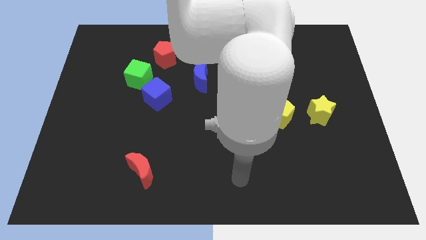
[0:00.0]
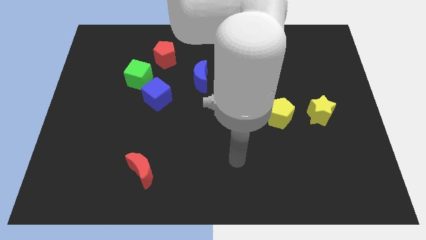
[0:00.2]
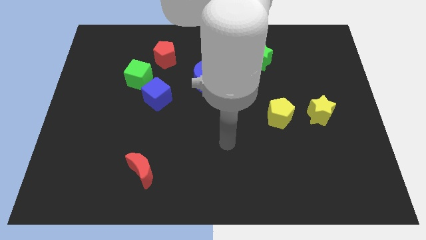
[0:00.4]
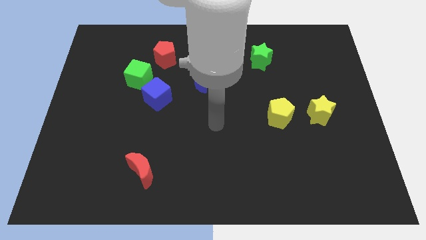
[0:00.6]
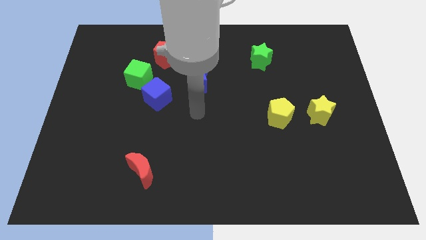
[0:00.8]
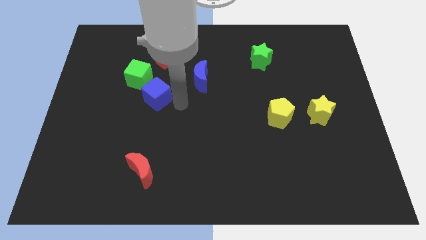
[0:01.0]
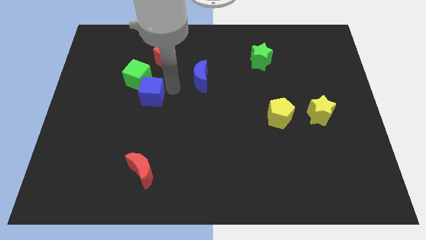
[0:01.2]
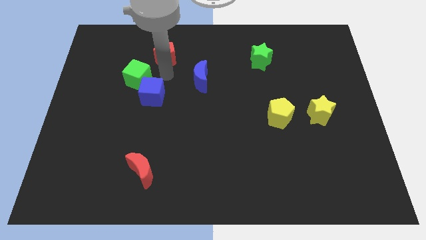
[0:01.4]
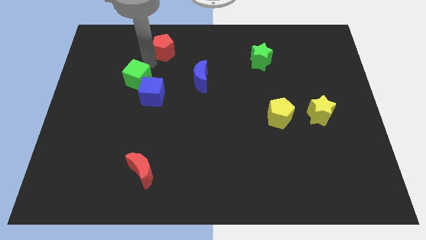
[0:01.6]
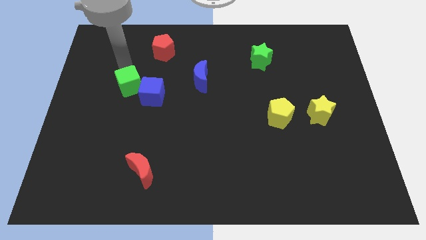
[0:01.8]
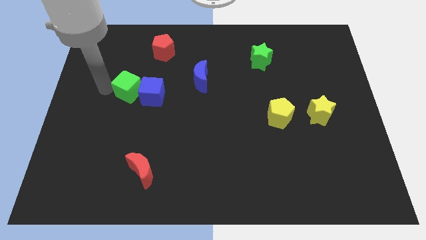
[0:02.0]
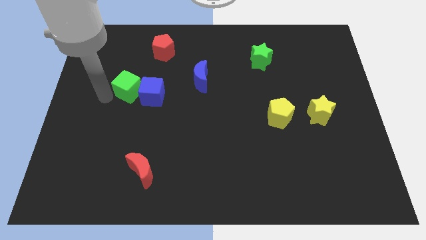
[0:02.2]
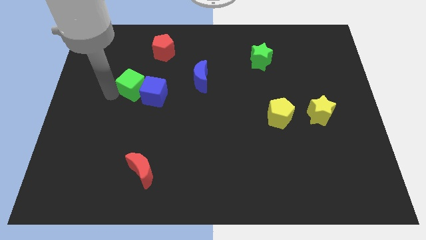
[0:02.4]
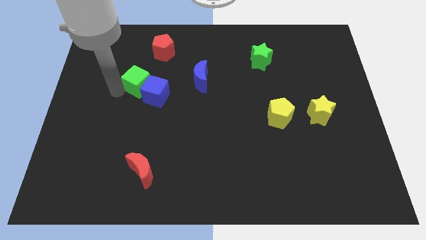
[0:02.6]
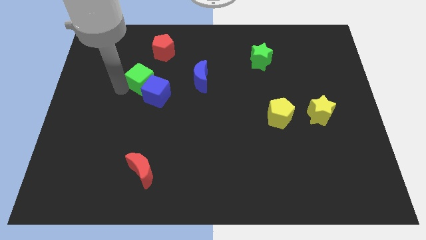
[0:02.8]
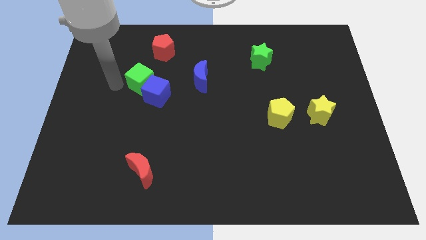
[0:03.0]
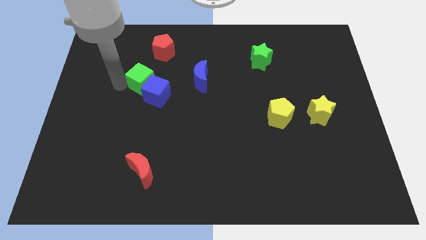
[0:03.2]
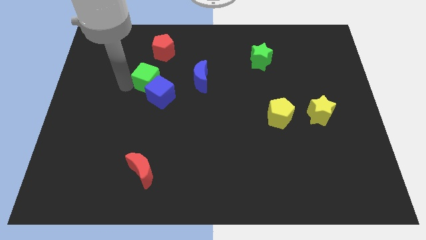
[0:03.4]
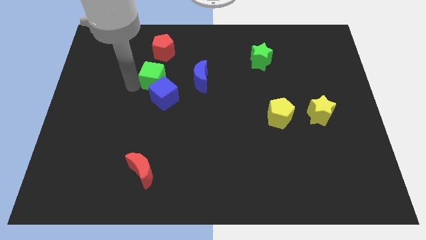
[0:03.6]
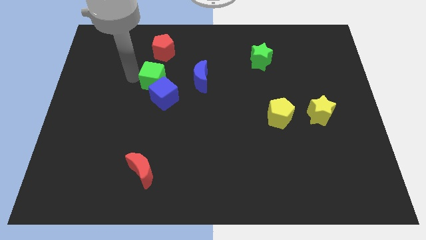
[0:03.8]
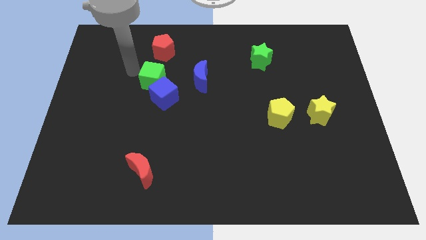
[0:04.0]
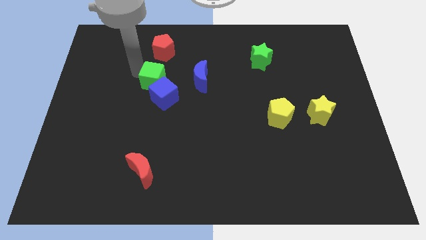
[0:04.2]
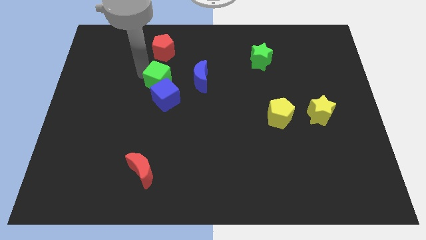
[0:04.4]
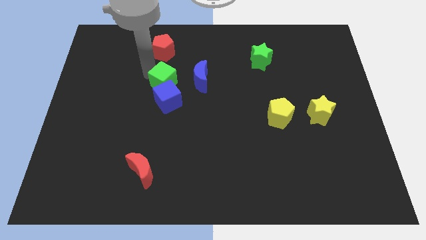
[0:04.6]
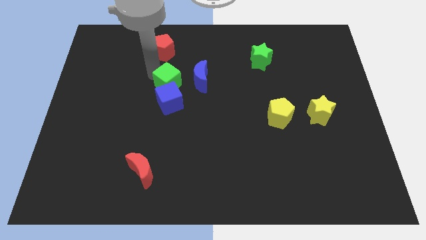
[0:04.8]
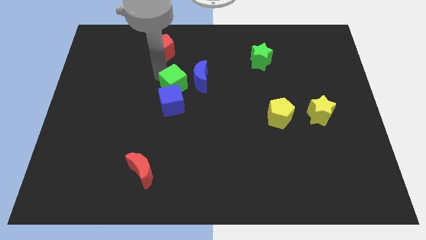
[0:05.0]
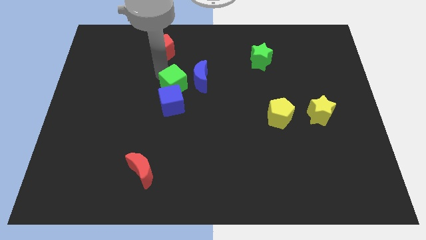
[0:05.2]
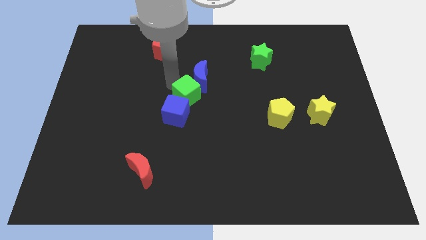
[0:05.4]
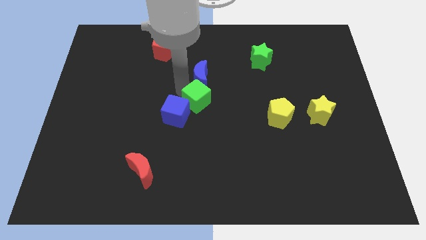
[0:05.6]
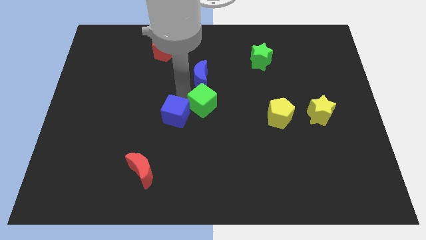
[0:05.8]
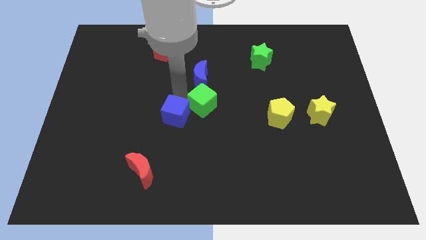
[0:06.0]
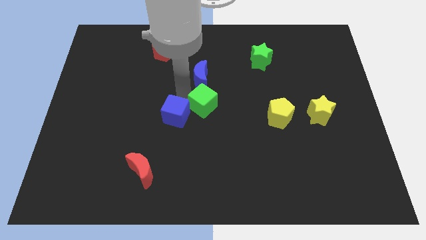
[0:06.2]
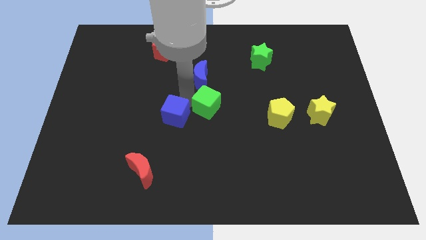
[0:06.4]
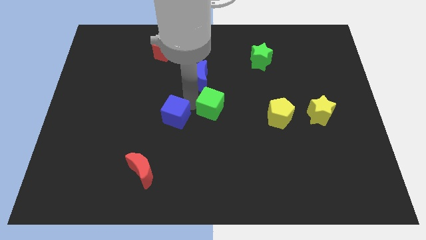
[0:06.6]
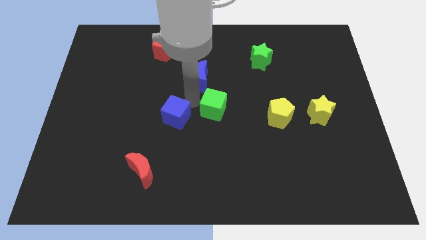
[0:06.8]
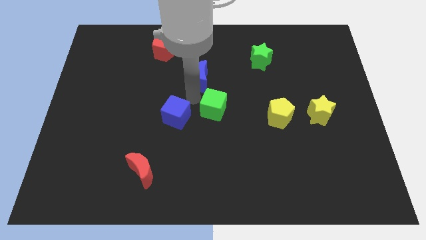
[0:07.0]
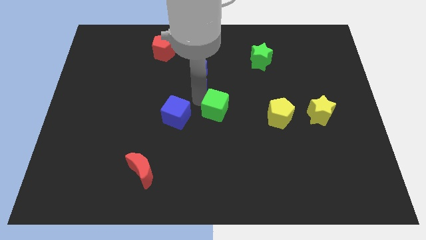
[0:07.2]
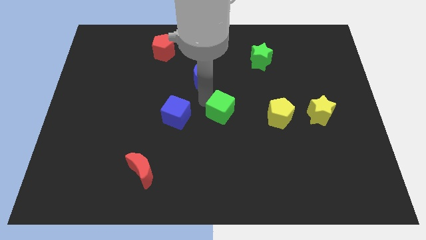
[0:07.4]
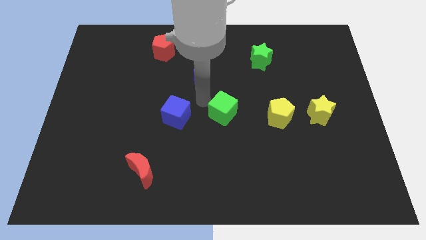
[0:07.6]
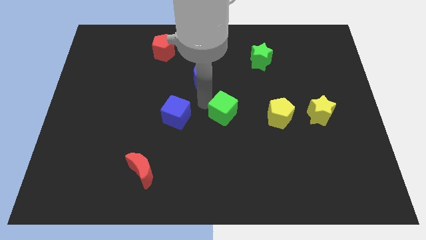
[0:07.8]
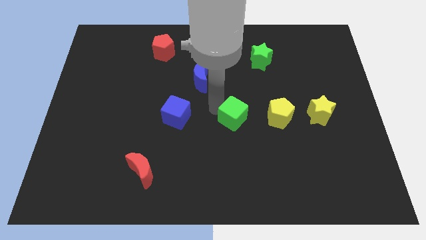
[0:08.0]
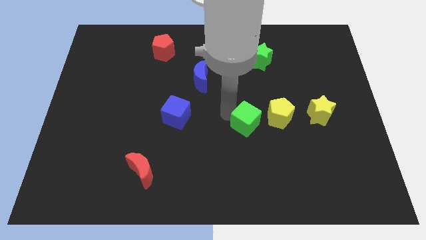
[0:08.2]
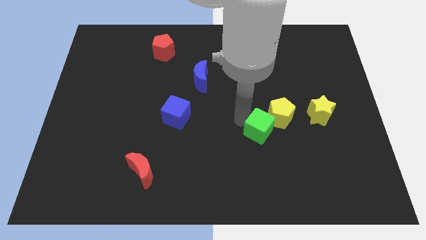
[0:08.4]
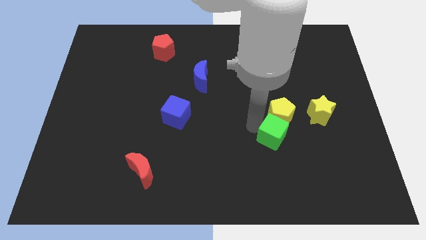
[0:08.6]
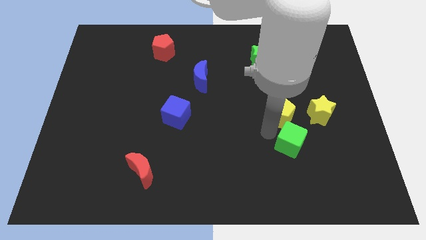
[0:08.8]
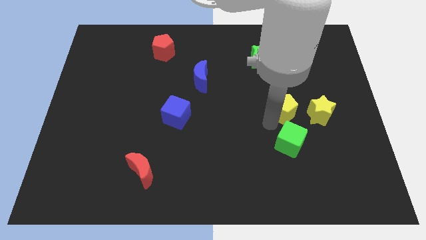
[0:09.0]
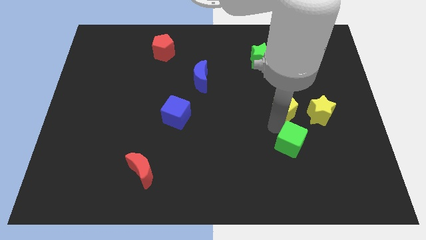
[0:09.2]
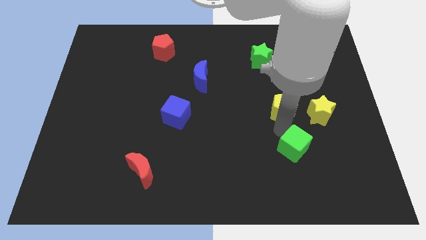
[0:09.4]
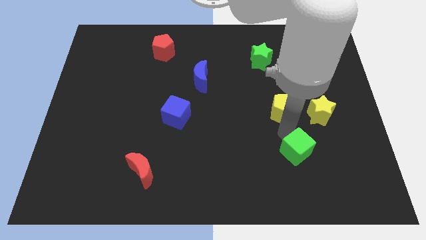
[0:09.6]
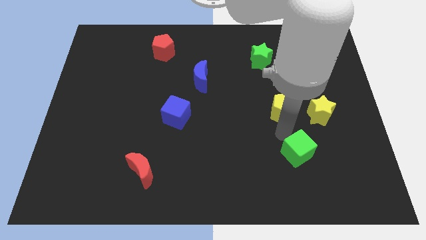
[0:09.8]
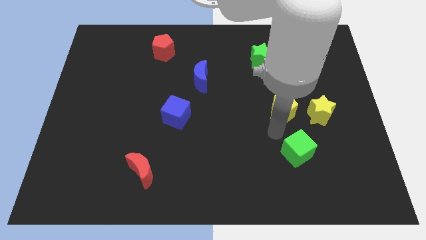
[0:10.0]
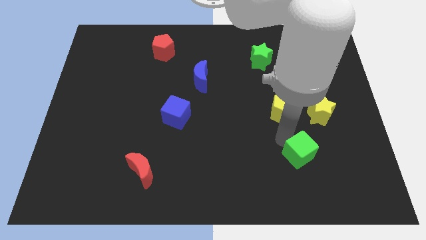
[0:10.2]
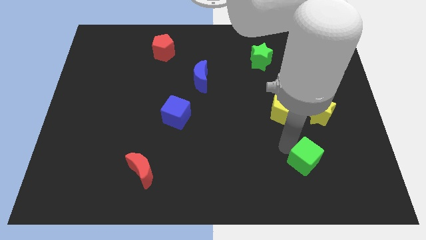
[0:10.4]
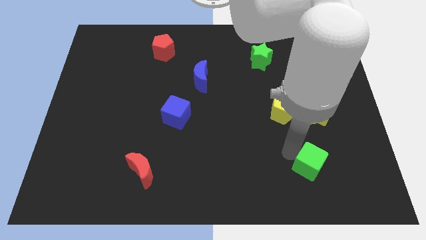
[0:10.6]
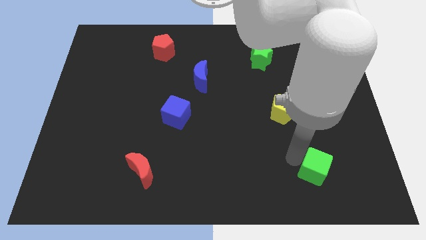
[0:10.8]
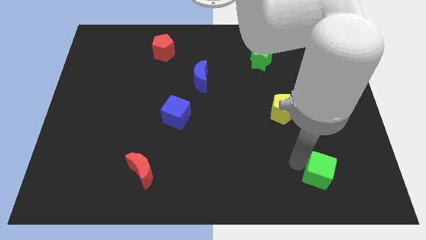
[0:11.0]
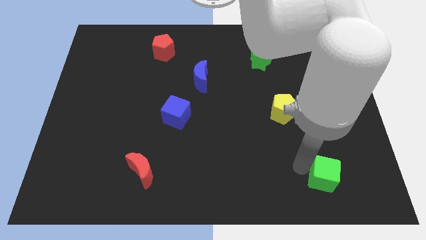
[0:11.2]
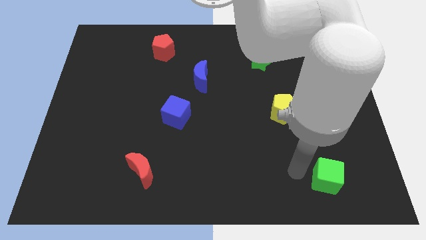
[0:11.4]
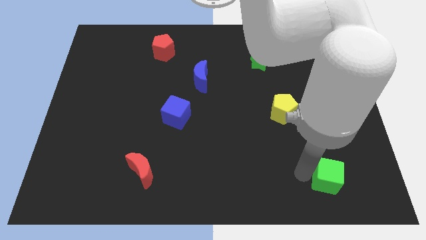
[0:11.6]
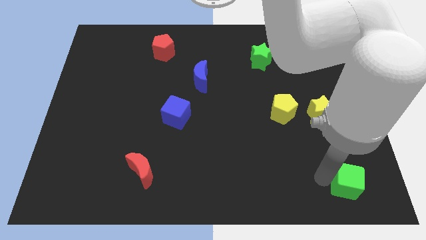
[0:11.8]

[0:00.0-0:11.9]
slide the green cube to the lower right corner

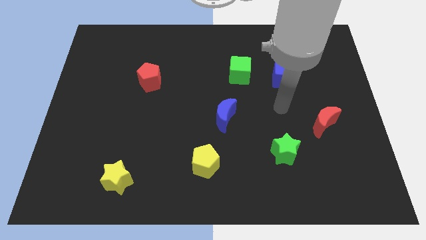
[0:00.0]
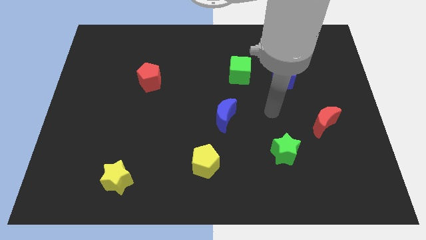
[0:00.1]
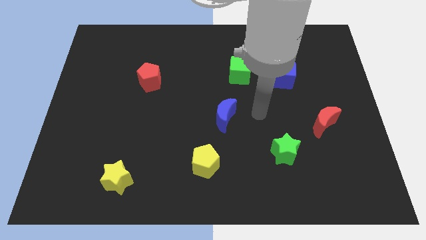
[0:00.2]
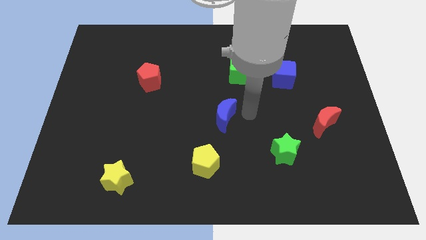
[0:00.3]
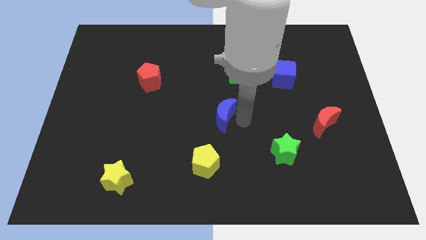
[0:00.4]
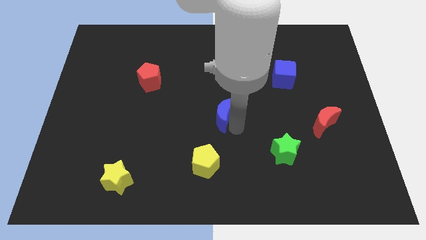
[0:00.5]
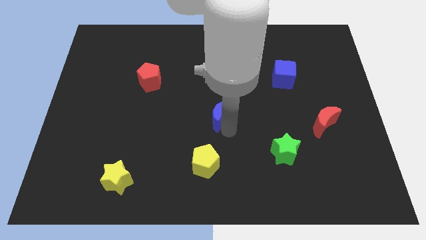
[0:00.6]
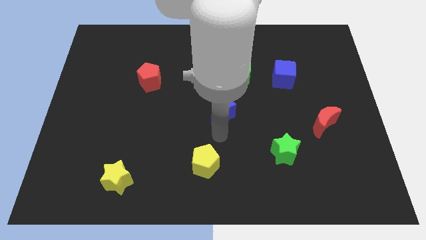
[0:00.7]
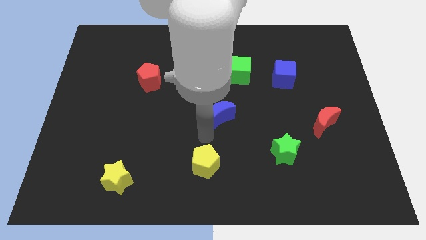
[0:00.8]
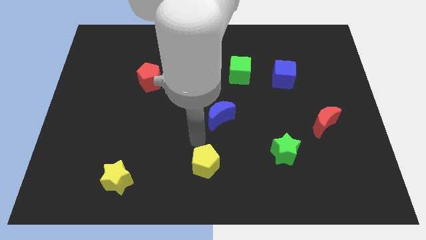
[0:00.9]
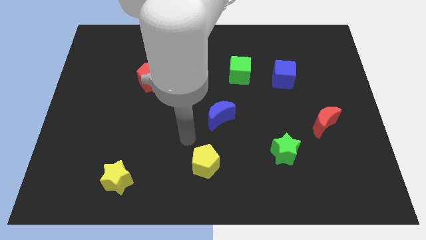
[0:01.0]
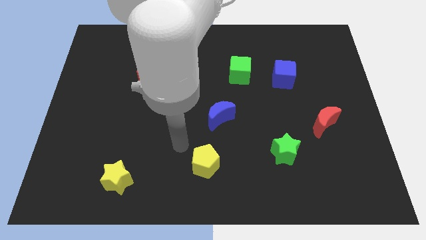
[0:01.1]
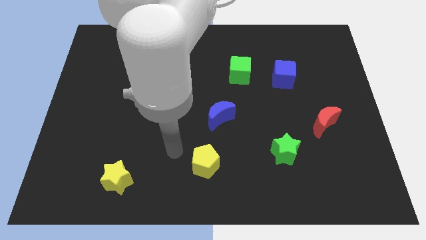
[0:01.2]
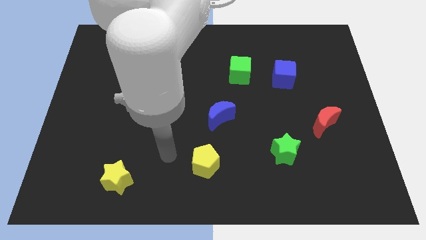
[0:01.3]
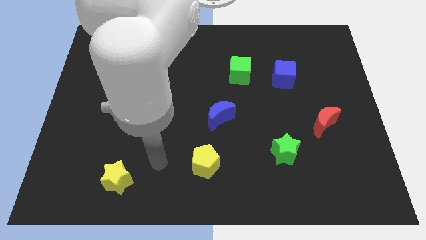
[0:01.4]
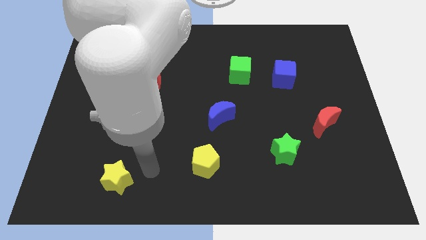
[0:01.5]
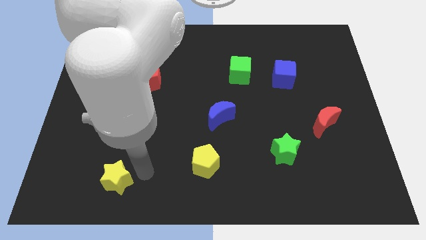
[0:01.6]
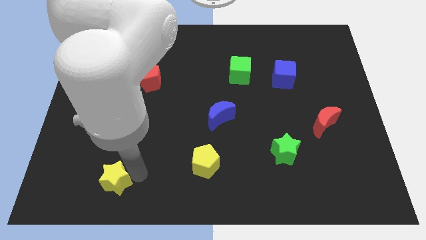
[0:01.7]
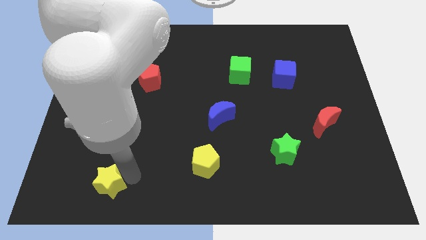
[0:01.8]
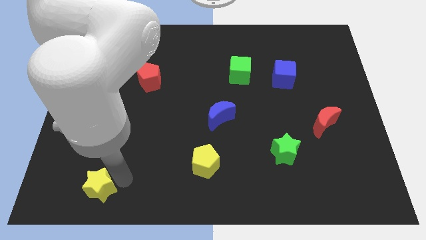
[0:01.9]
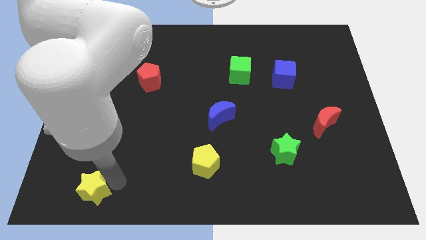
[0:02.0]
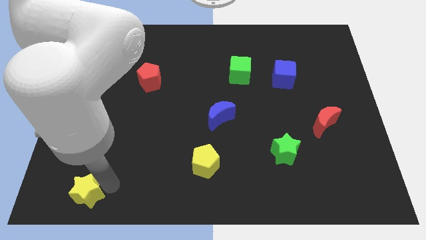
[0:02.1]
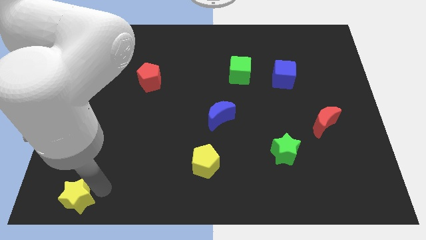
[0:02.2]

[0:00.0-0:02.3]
put the yellow star to the lower left corner
